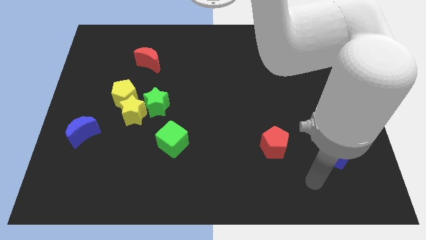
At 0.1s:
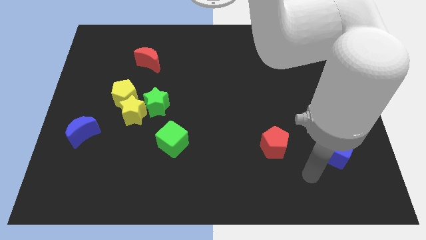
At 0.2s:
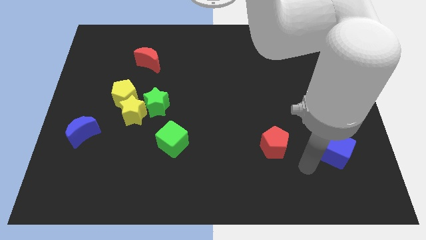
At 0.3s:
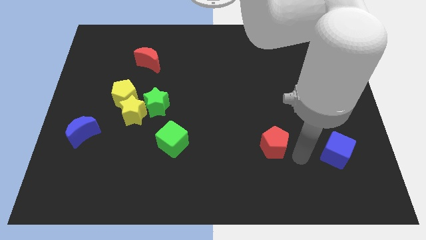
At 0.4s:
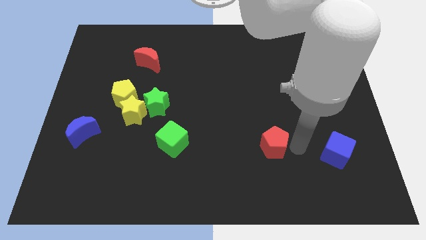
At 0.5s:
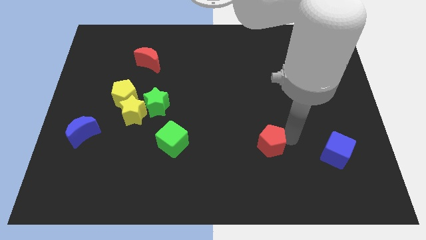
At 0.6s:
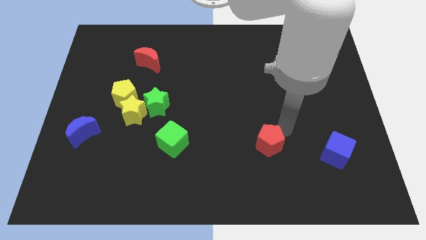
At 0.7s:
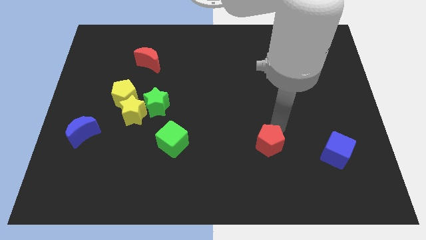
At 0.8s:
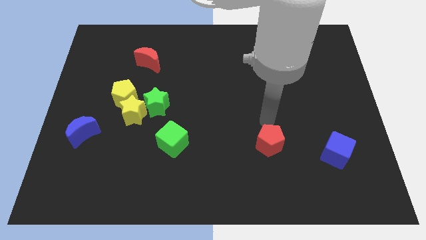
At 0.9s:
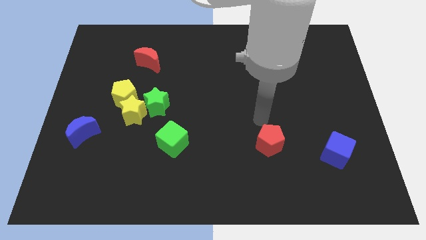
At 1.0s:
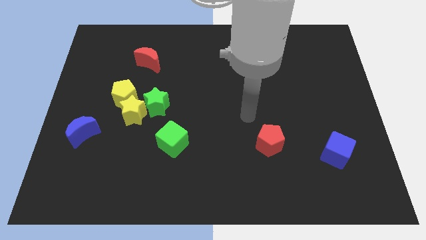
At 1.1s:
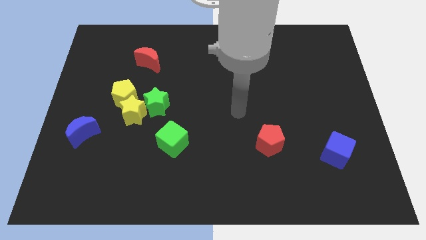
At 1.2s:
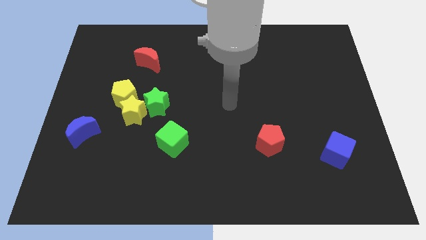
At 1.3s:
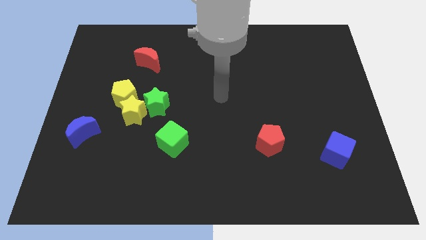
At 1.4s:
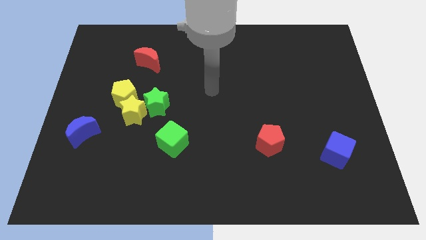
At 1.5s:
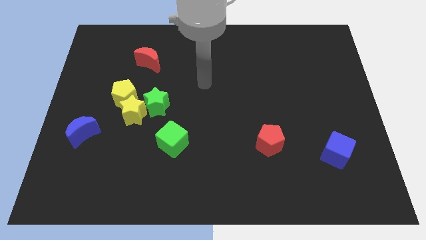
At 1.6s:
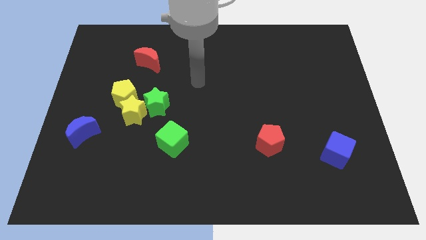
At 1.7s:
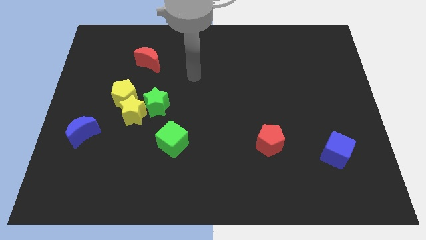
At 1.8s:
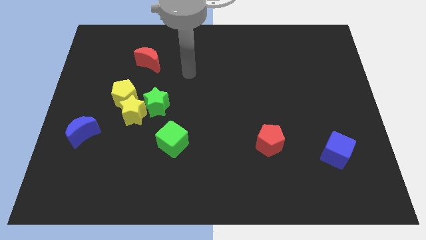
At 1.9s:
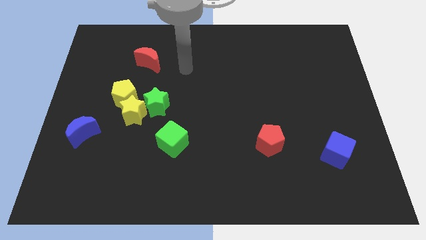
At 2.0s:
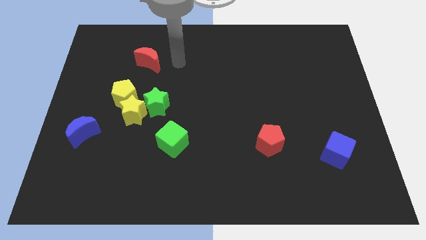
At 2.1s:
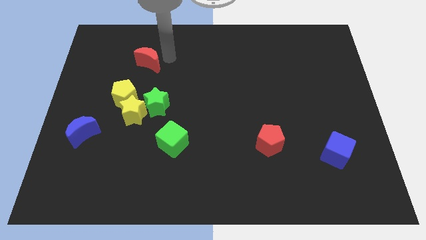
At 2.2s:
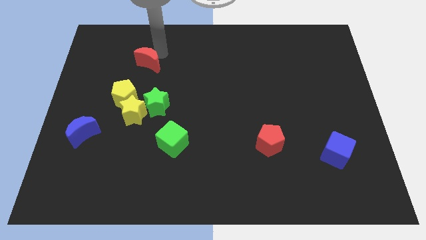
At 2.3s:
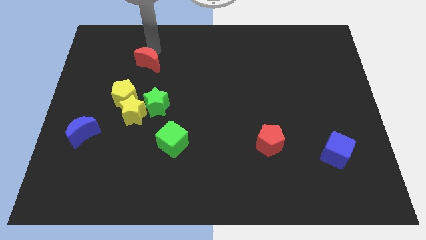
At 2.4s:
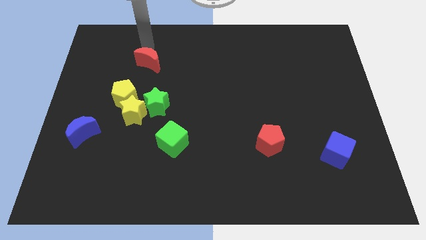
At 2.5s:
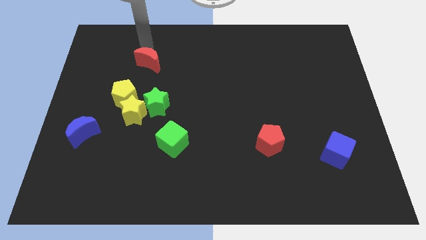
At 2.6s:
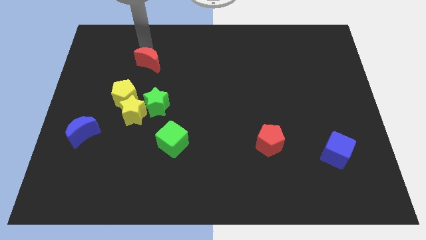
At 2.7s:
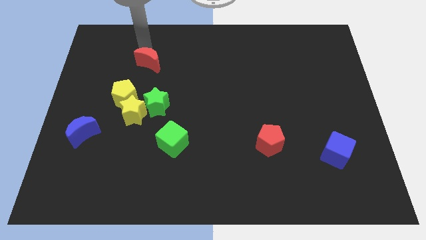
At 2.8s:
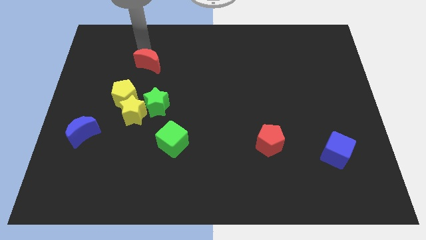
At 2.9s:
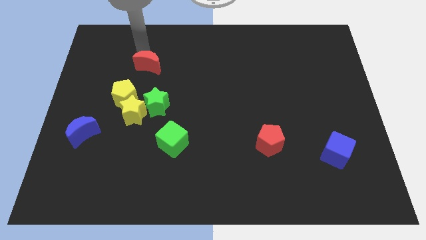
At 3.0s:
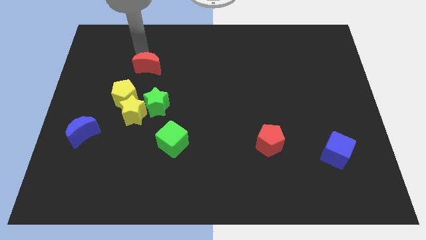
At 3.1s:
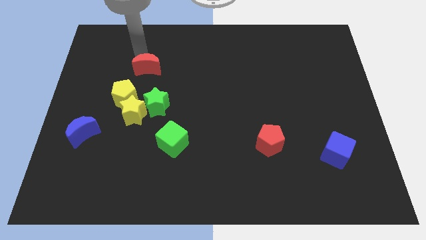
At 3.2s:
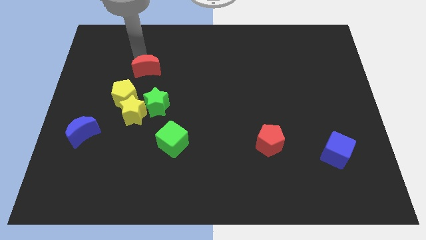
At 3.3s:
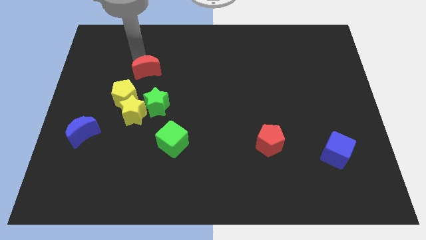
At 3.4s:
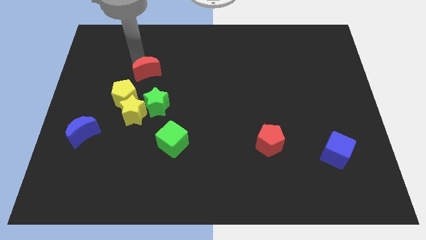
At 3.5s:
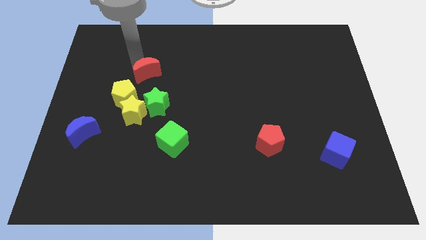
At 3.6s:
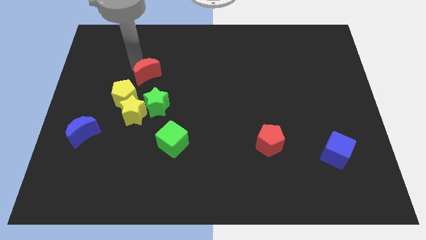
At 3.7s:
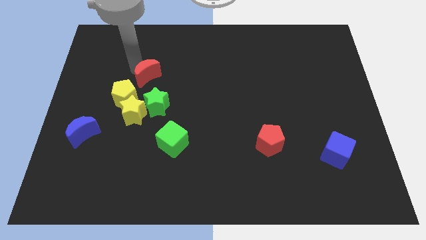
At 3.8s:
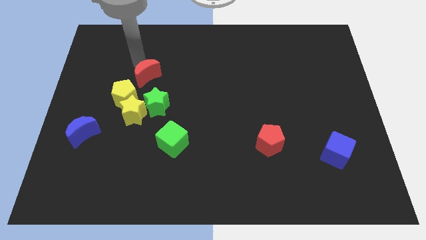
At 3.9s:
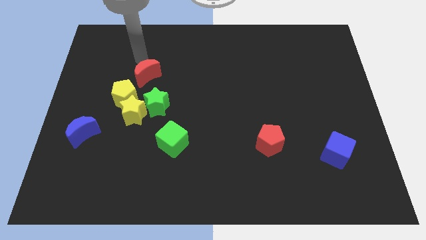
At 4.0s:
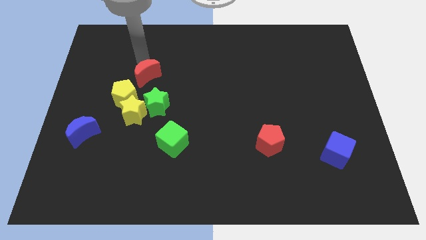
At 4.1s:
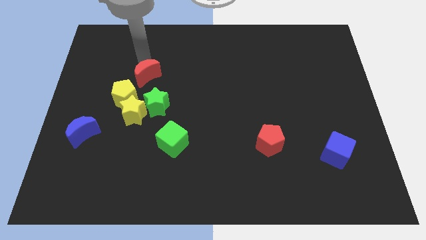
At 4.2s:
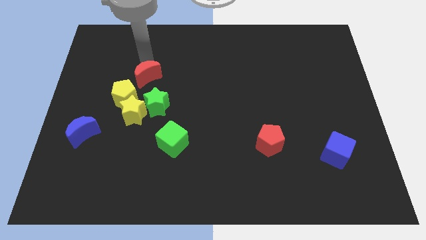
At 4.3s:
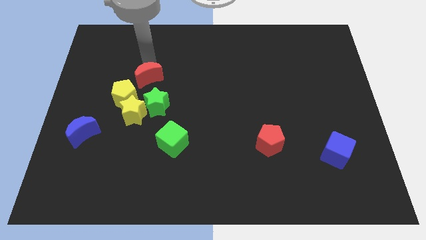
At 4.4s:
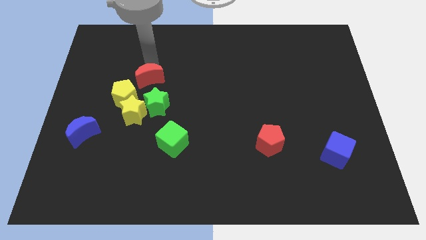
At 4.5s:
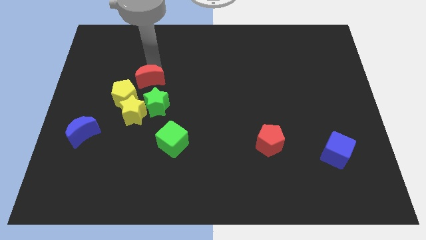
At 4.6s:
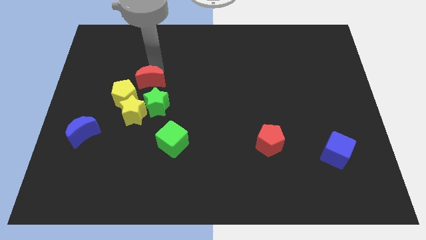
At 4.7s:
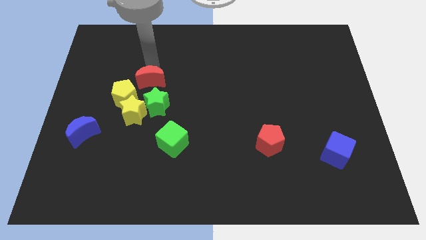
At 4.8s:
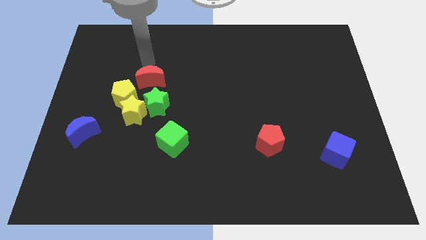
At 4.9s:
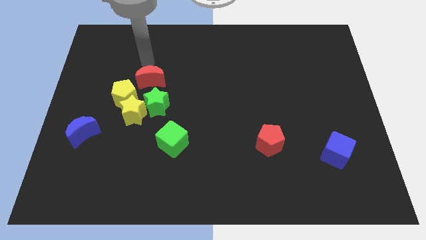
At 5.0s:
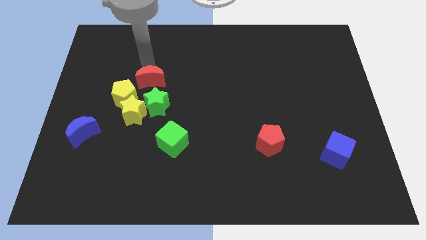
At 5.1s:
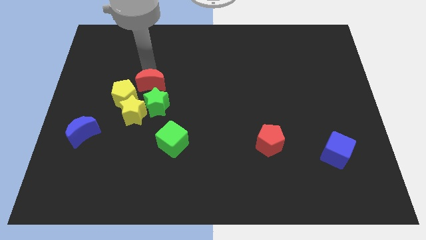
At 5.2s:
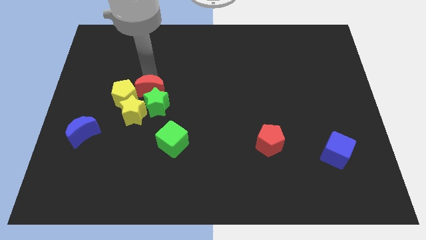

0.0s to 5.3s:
move the red moon to the green star

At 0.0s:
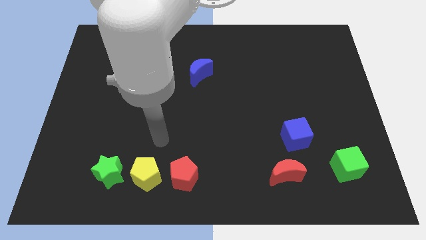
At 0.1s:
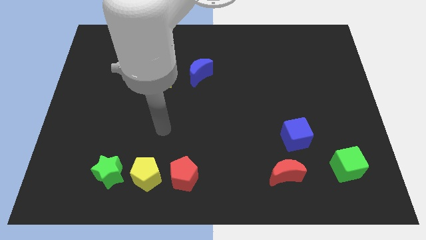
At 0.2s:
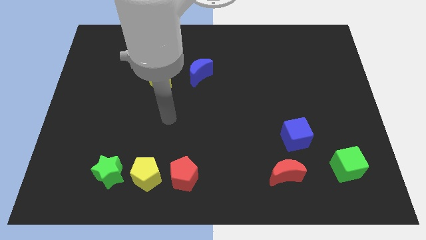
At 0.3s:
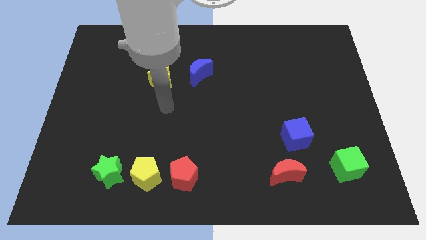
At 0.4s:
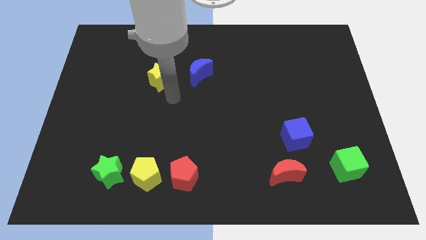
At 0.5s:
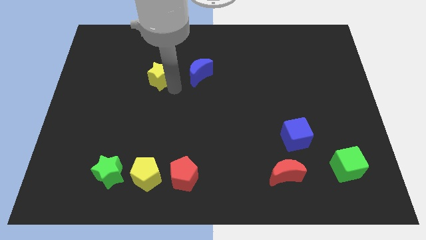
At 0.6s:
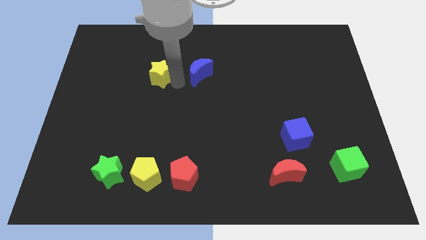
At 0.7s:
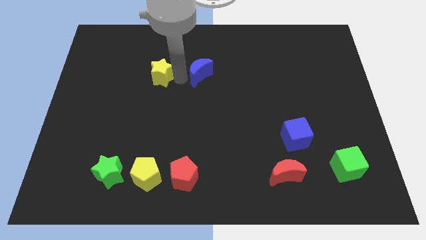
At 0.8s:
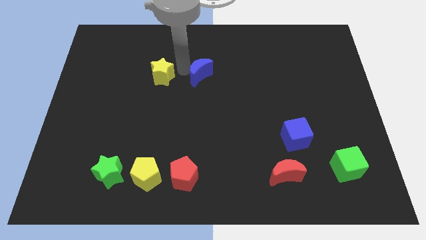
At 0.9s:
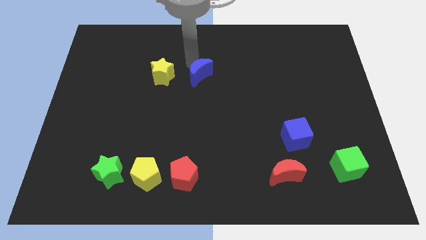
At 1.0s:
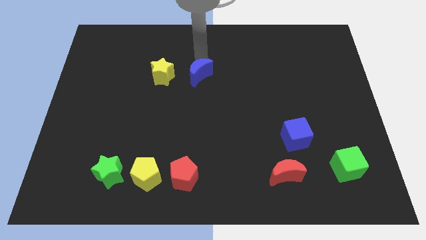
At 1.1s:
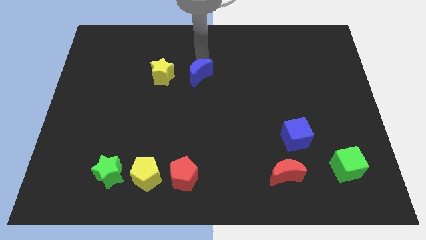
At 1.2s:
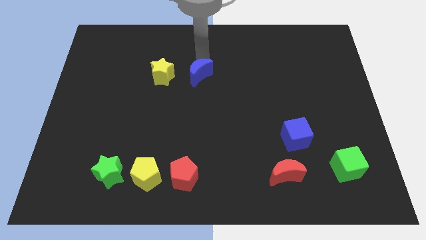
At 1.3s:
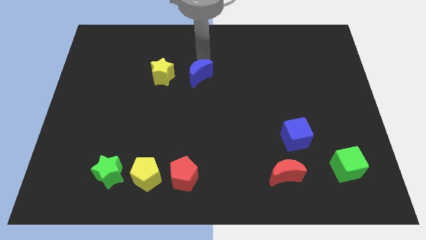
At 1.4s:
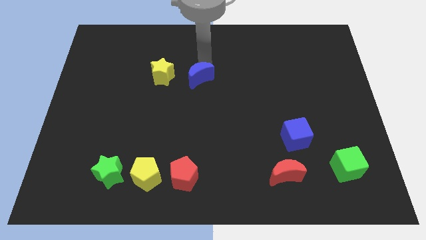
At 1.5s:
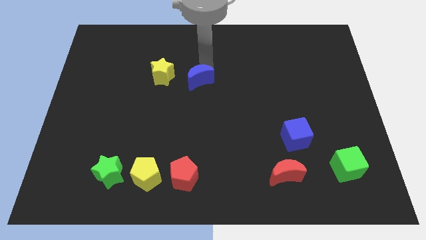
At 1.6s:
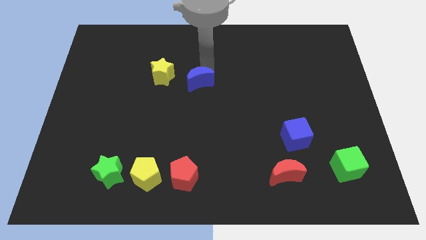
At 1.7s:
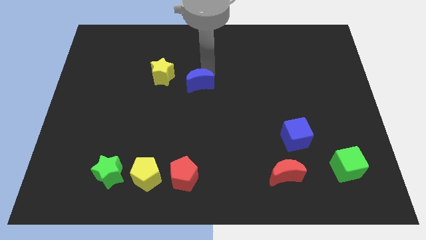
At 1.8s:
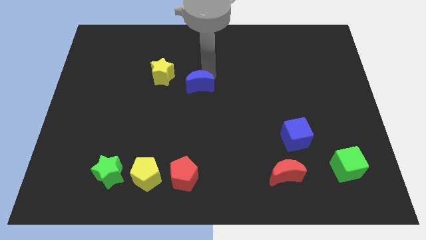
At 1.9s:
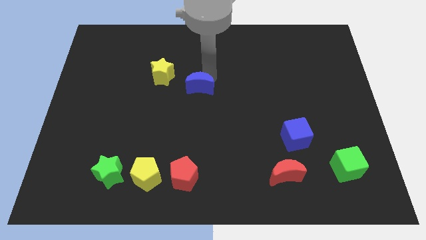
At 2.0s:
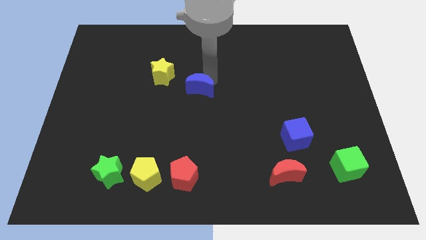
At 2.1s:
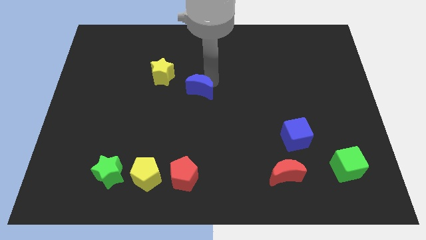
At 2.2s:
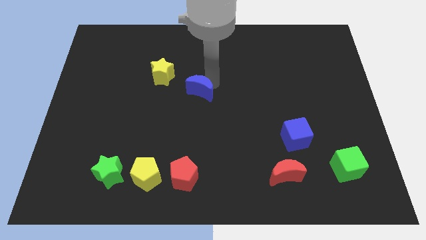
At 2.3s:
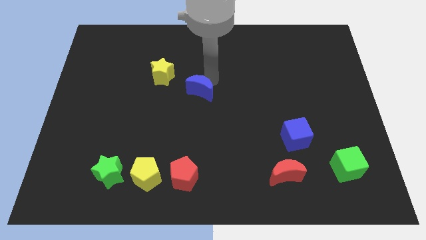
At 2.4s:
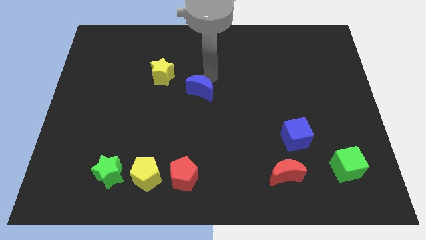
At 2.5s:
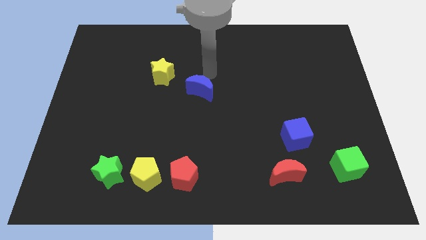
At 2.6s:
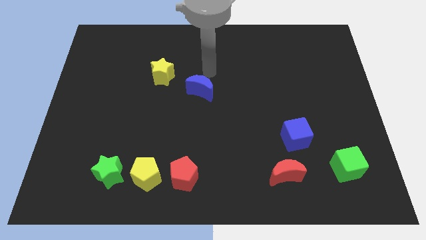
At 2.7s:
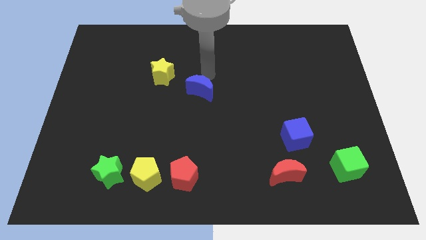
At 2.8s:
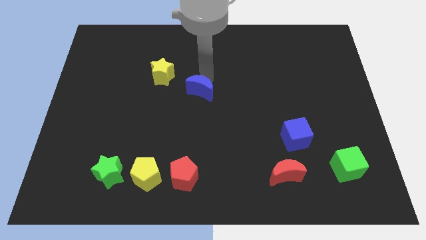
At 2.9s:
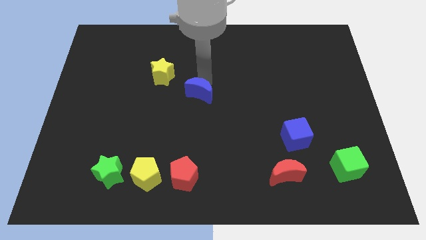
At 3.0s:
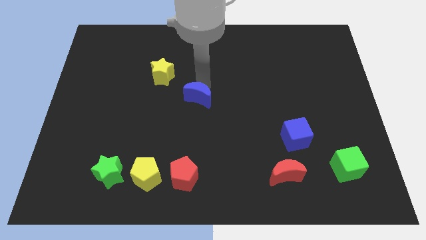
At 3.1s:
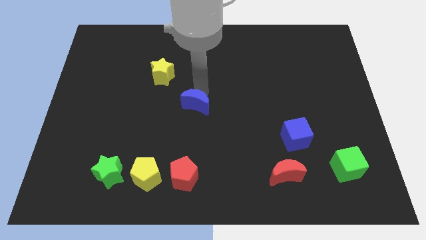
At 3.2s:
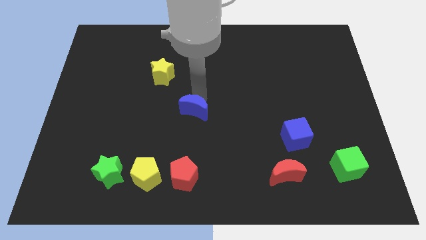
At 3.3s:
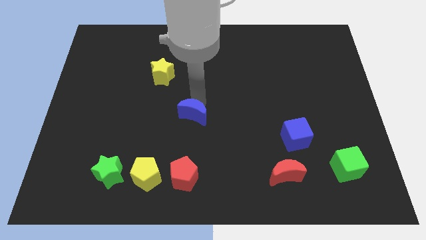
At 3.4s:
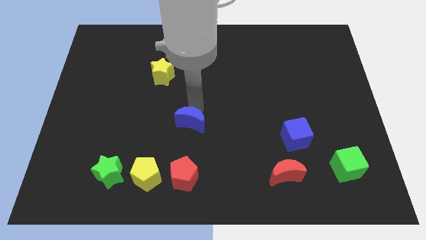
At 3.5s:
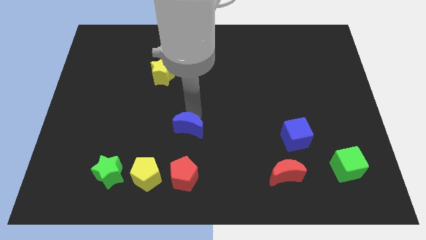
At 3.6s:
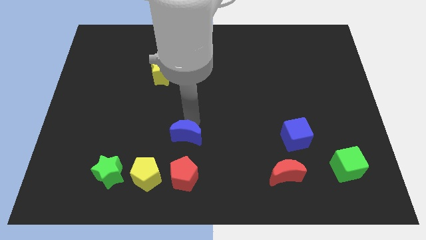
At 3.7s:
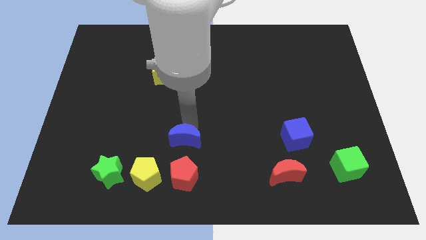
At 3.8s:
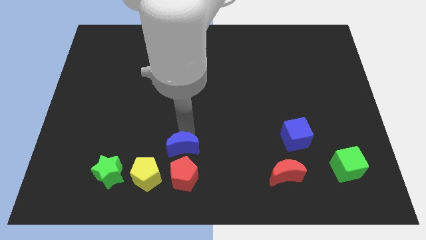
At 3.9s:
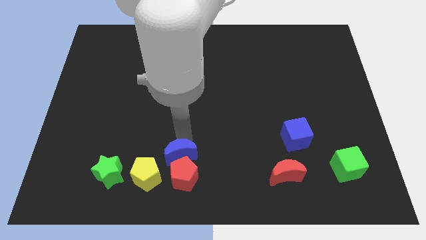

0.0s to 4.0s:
slide the blue moon close to the red pentagon
